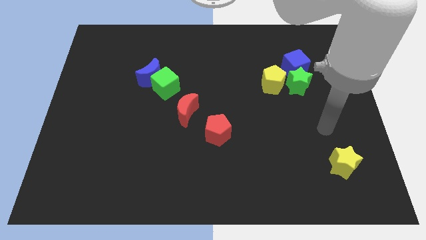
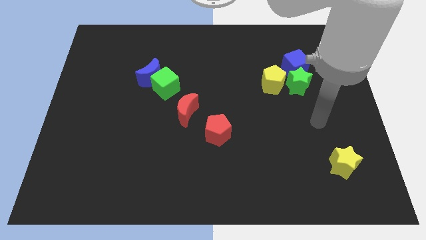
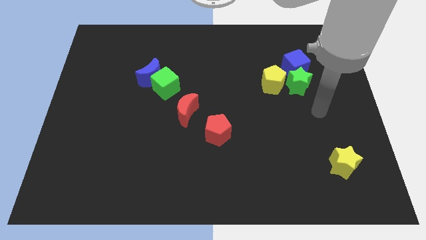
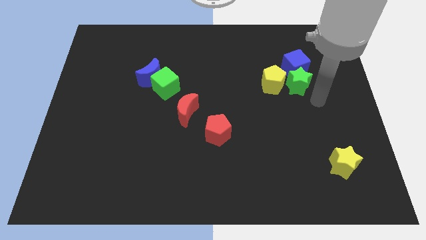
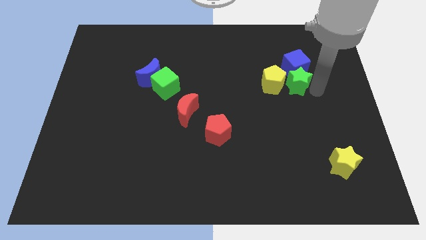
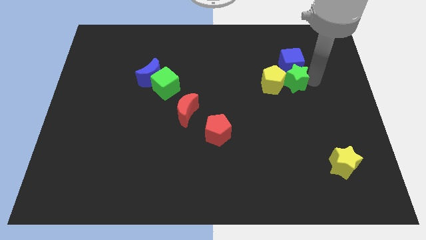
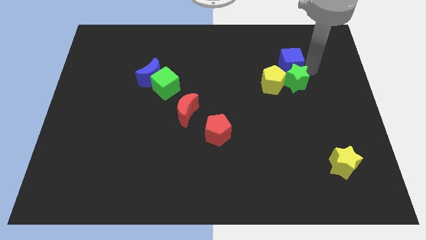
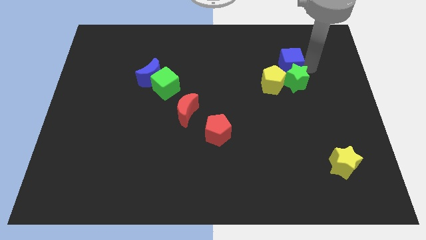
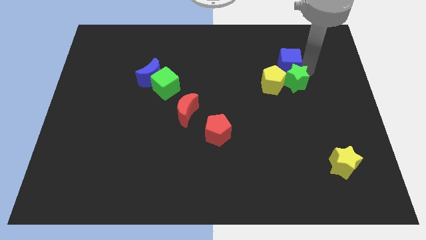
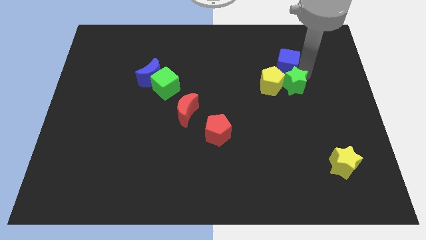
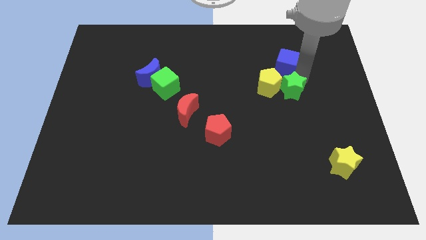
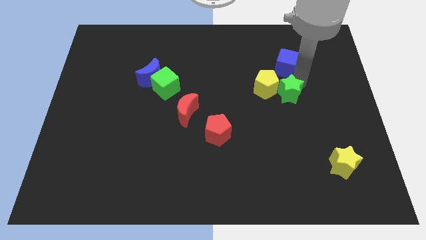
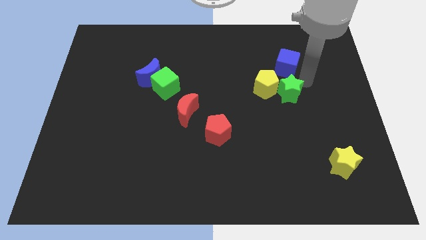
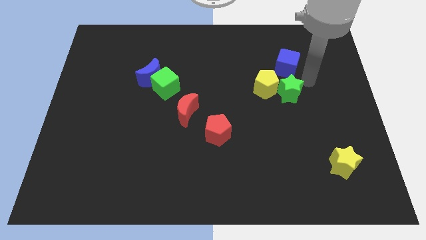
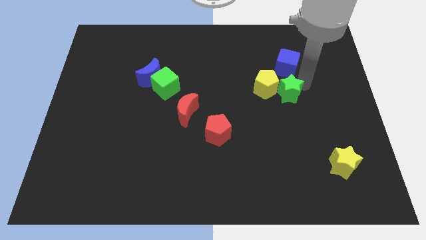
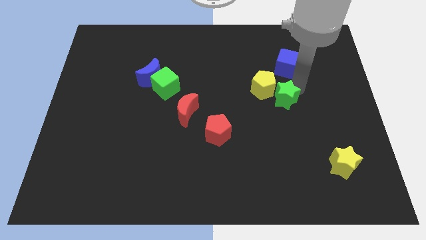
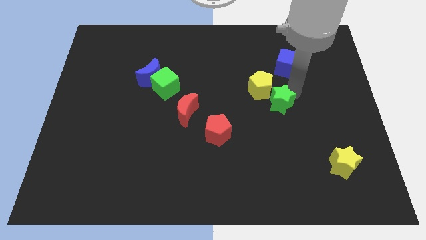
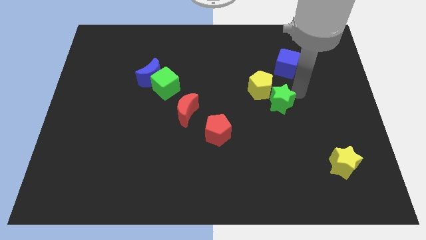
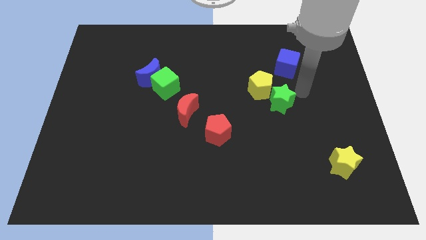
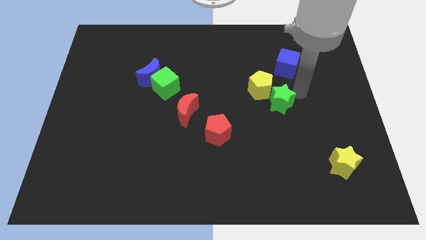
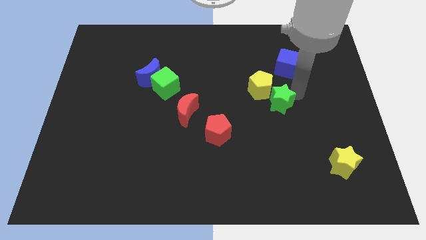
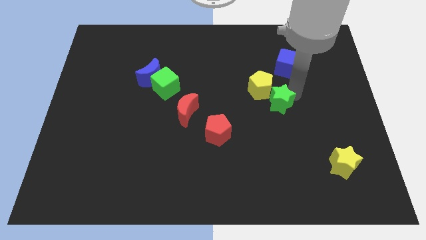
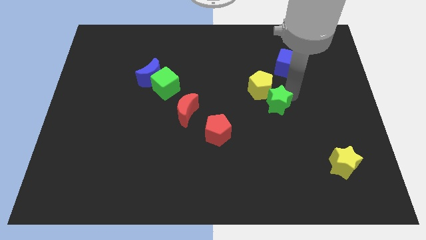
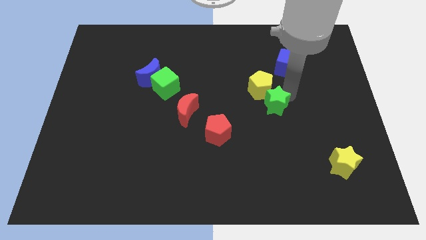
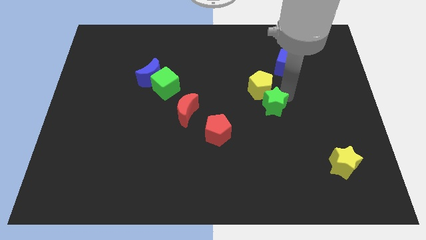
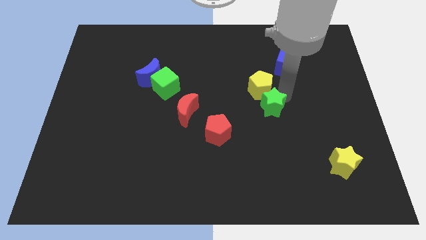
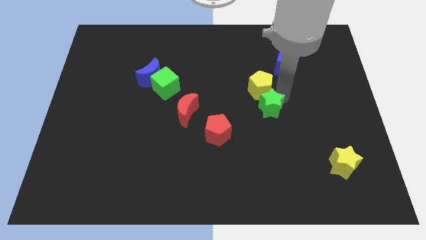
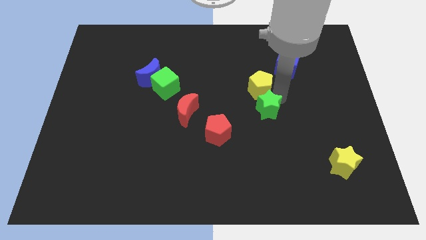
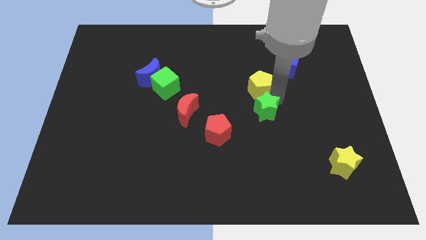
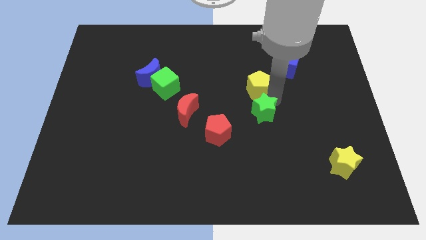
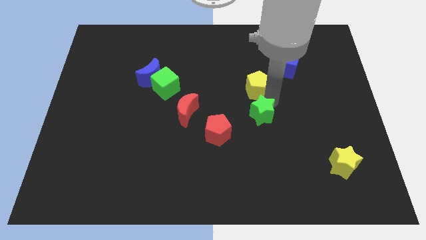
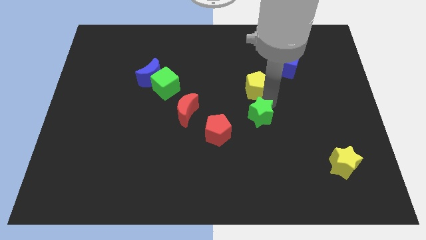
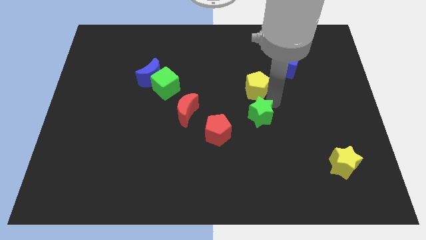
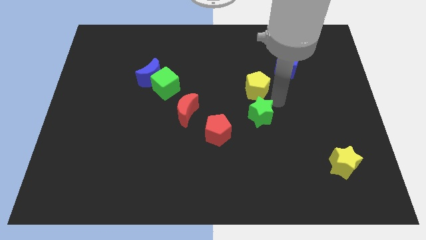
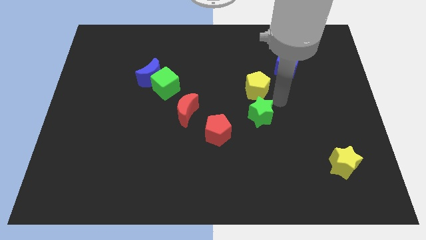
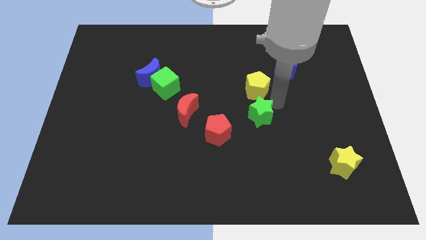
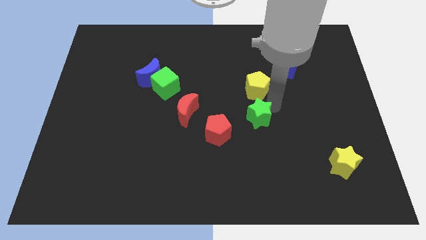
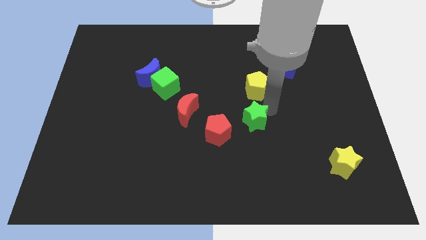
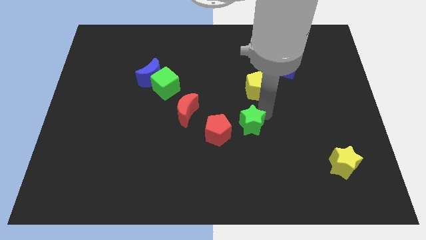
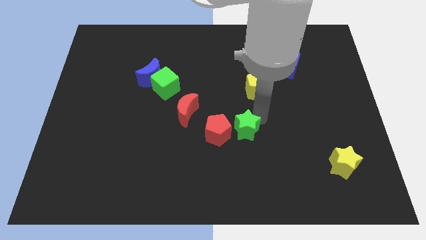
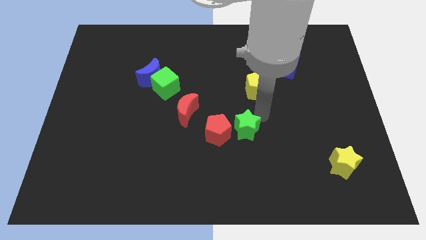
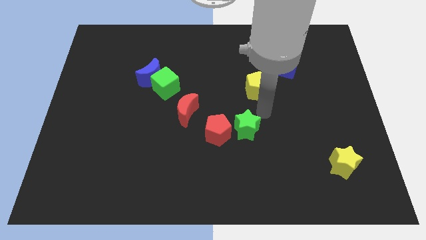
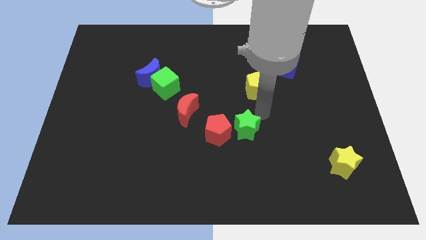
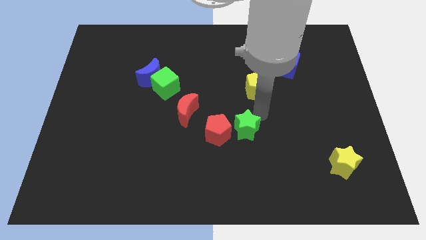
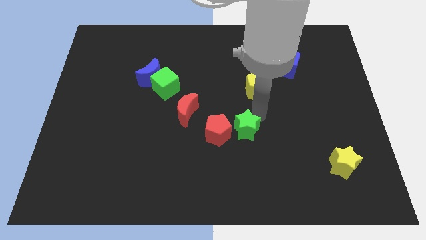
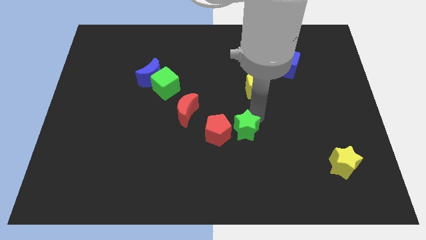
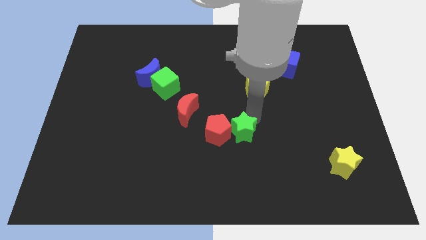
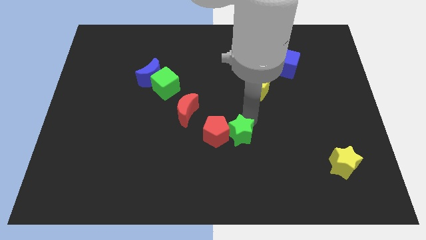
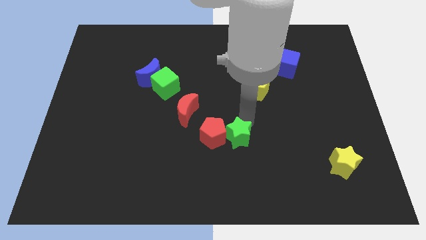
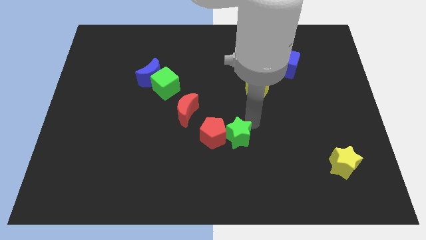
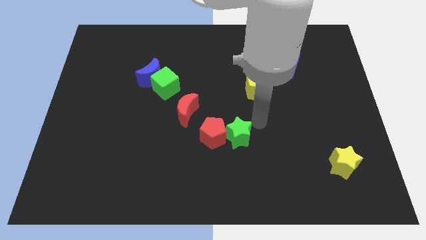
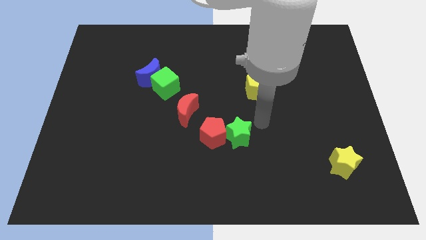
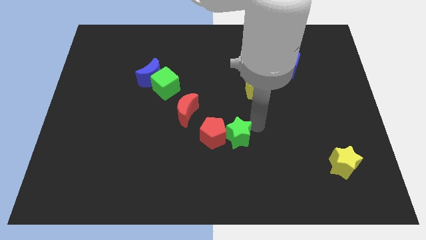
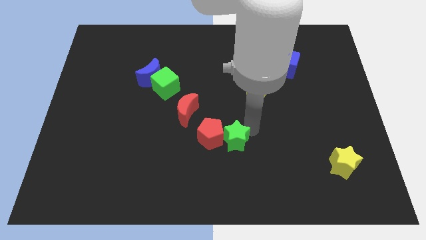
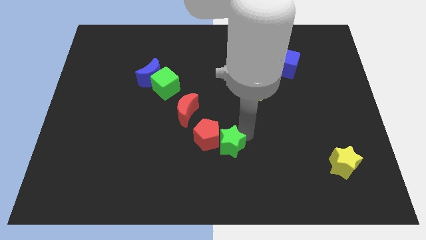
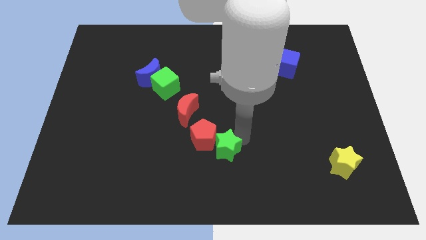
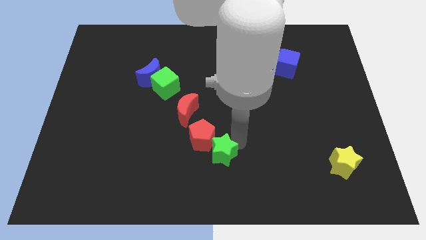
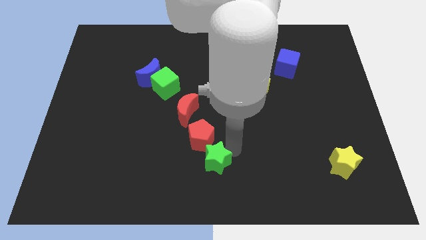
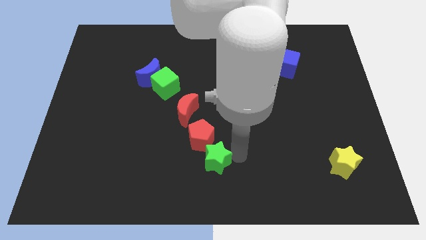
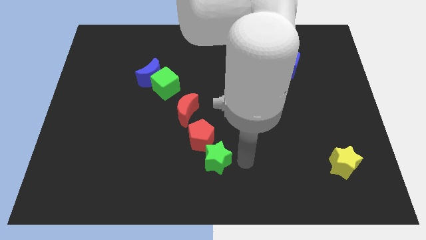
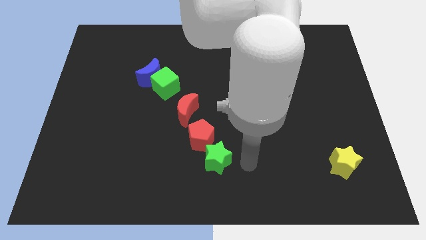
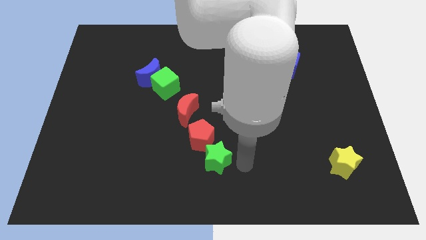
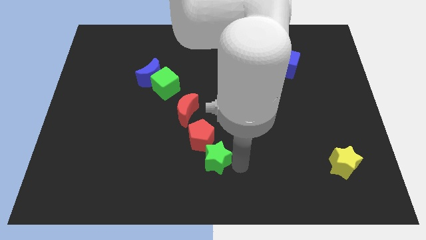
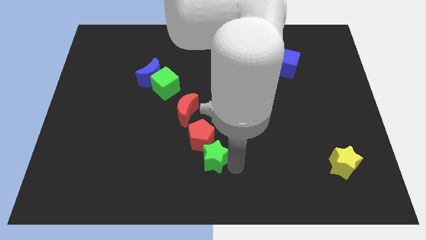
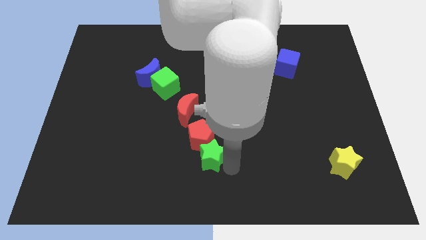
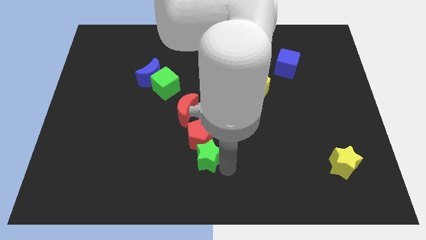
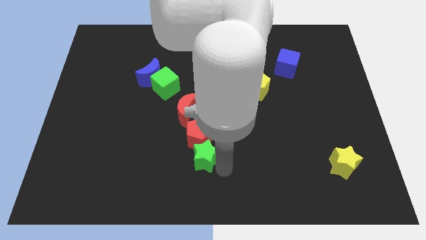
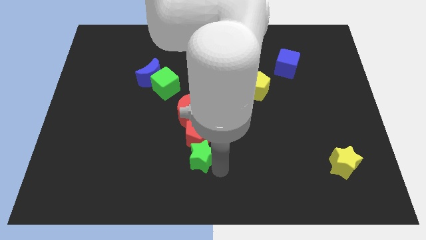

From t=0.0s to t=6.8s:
slide the green star diagonally down and to the left of the red pentagon
